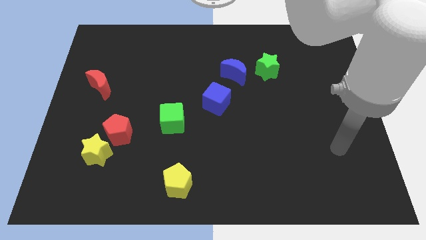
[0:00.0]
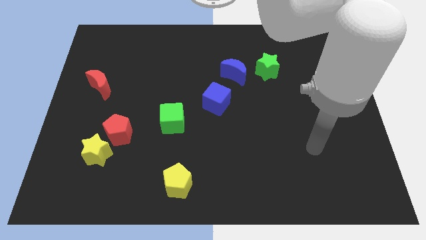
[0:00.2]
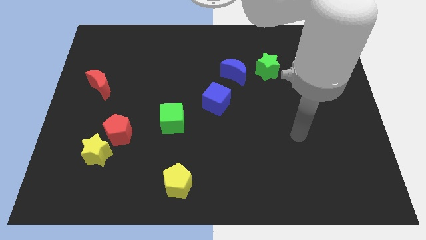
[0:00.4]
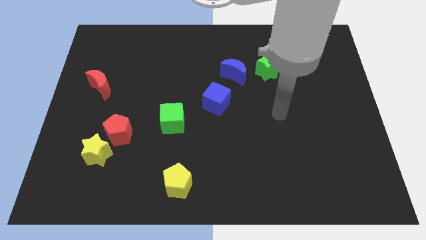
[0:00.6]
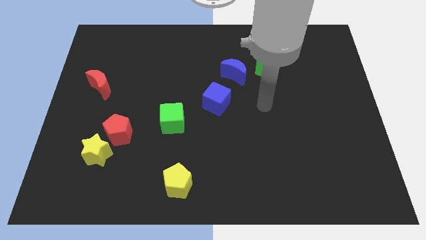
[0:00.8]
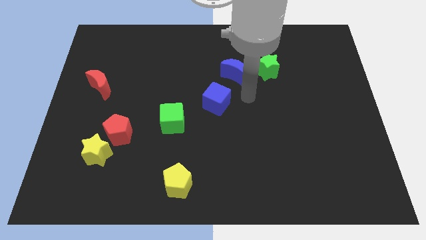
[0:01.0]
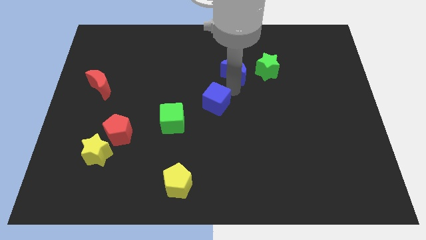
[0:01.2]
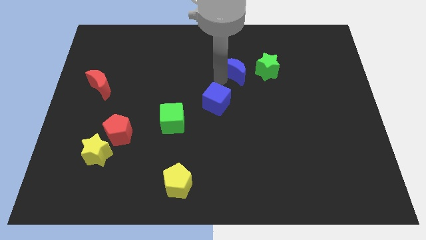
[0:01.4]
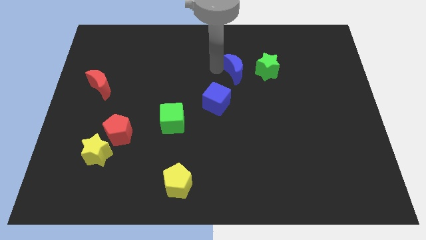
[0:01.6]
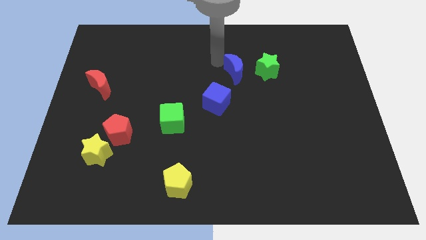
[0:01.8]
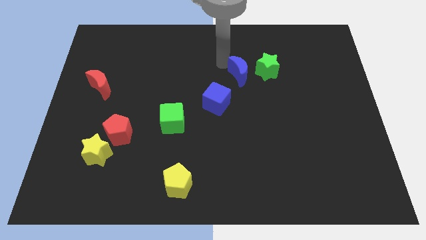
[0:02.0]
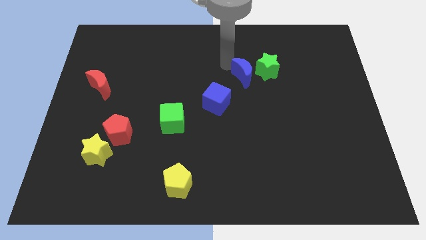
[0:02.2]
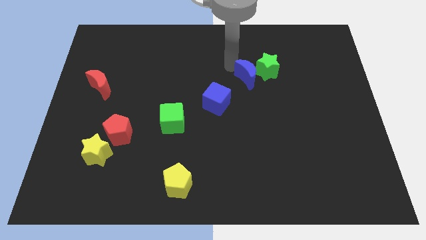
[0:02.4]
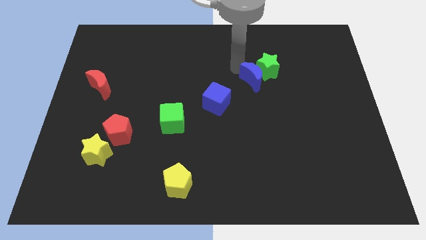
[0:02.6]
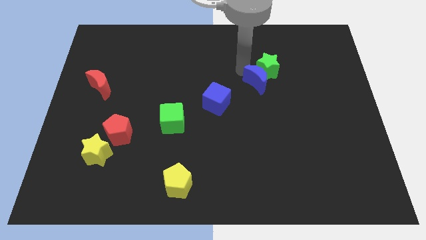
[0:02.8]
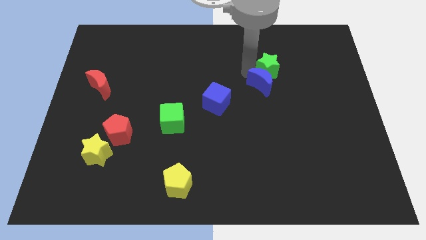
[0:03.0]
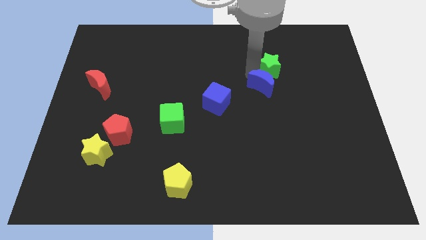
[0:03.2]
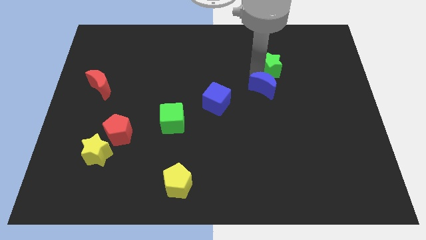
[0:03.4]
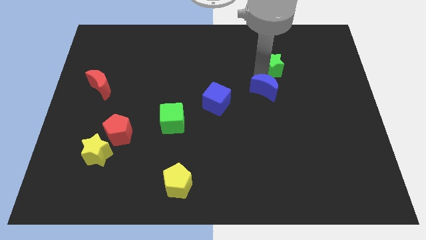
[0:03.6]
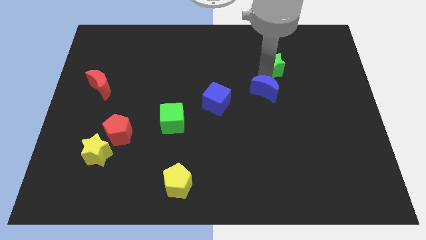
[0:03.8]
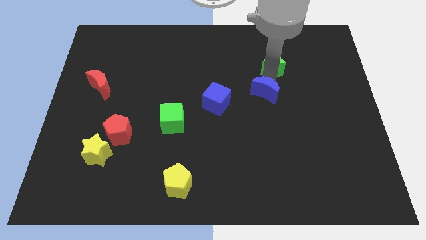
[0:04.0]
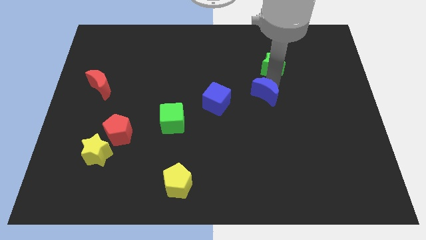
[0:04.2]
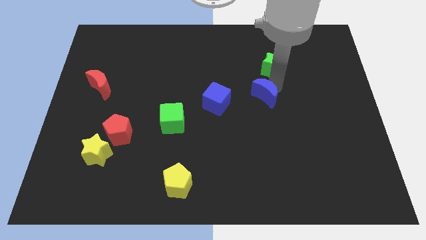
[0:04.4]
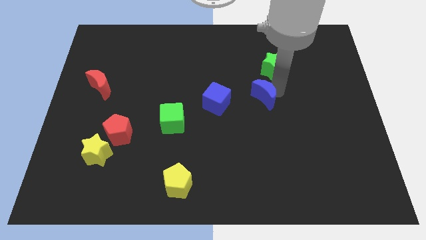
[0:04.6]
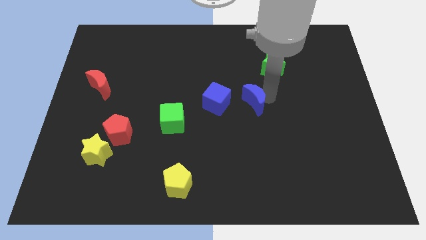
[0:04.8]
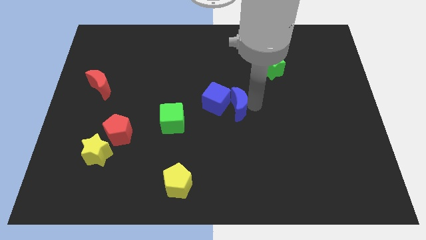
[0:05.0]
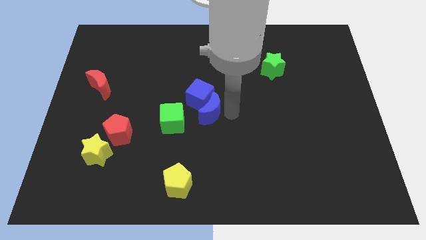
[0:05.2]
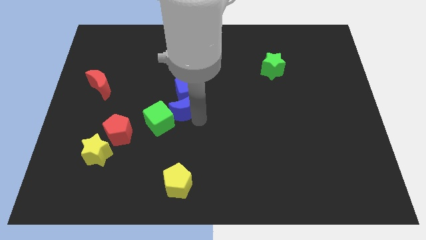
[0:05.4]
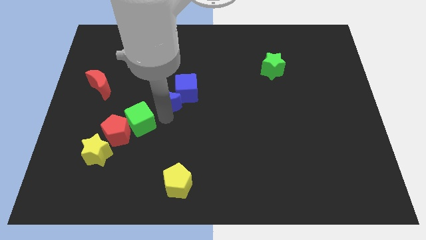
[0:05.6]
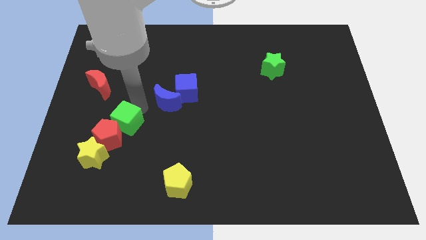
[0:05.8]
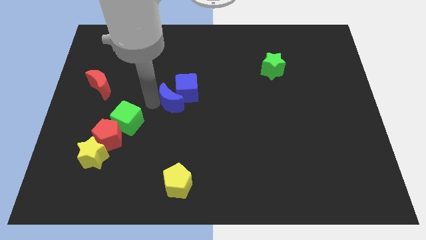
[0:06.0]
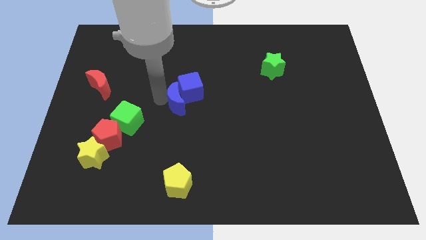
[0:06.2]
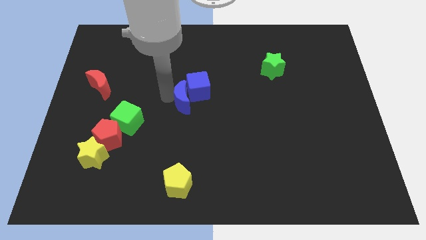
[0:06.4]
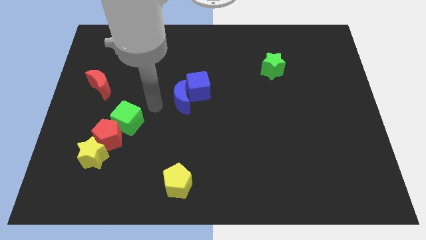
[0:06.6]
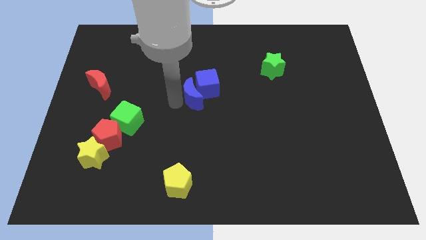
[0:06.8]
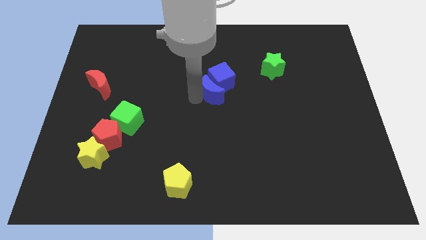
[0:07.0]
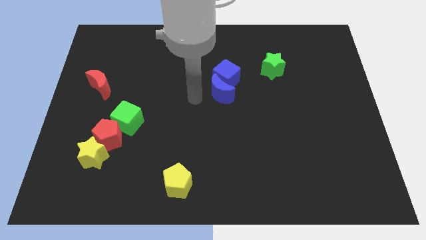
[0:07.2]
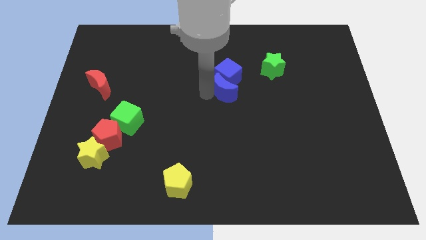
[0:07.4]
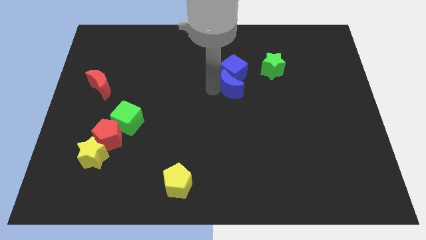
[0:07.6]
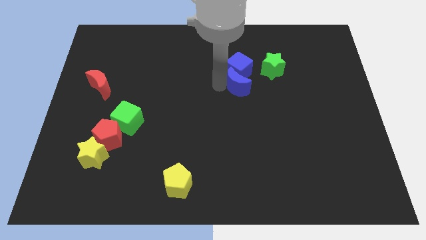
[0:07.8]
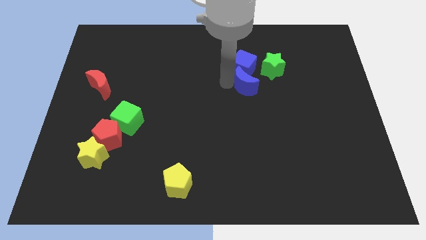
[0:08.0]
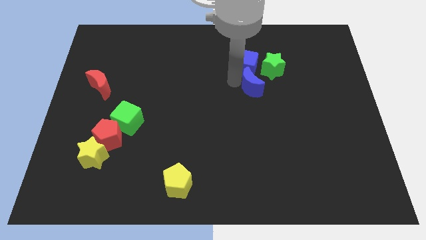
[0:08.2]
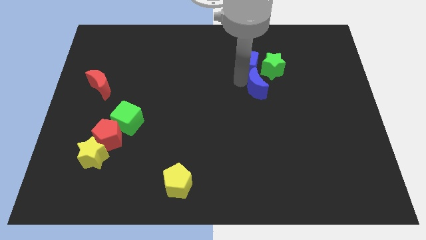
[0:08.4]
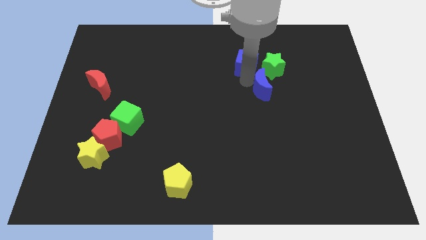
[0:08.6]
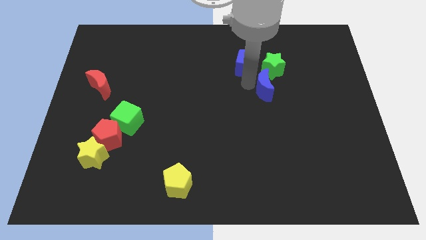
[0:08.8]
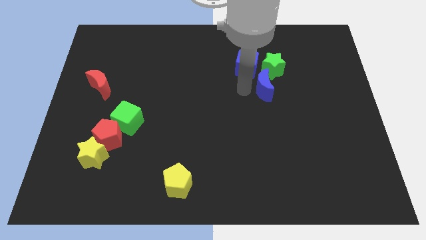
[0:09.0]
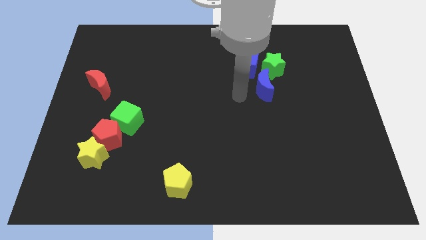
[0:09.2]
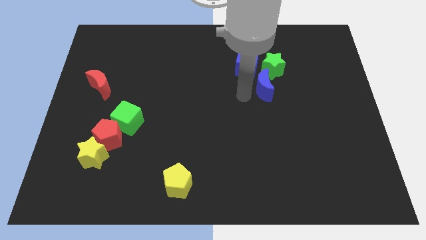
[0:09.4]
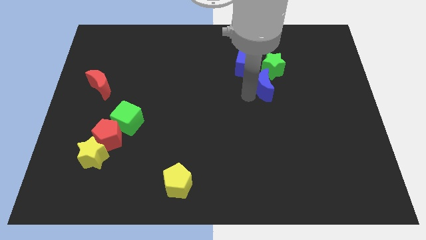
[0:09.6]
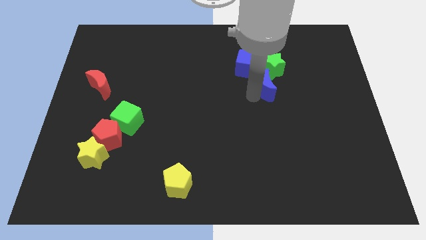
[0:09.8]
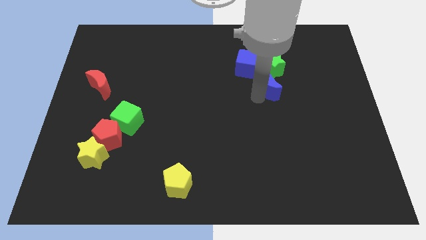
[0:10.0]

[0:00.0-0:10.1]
slide the blue moon slightly right

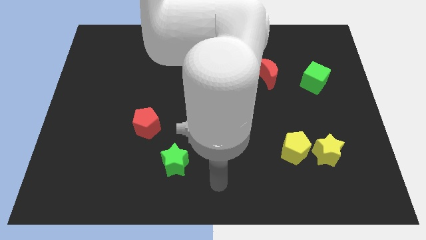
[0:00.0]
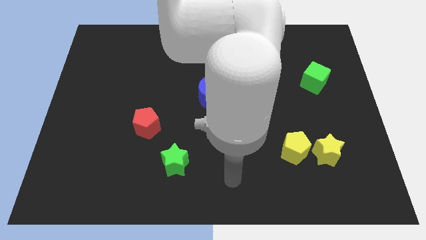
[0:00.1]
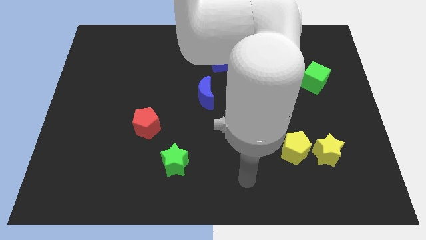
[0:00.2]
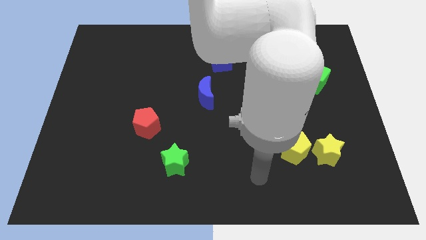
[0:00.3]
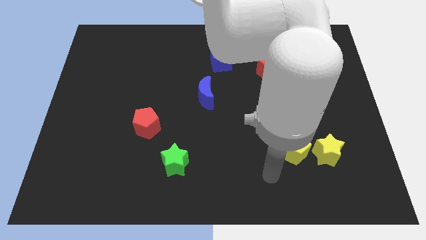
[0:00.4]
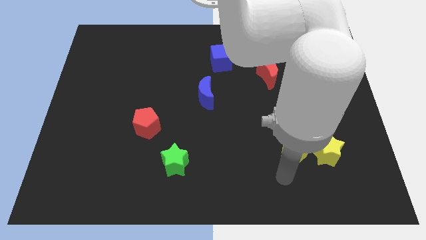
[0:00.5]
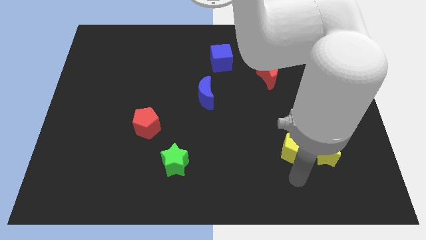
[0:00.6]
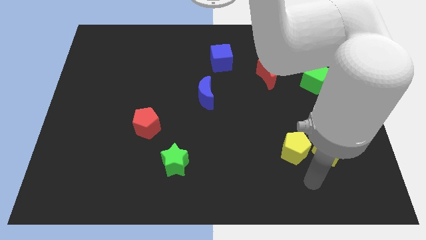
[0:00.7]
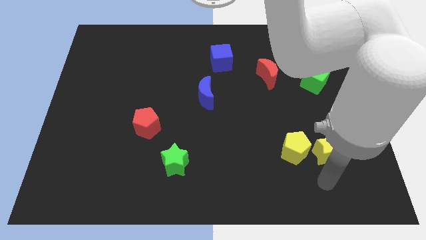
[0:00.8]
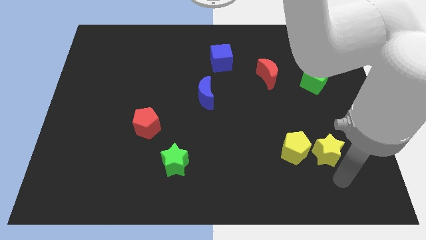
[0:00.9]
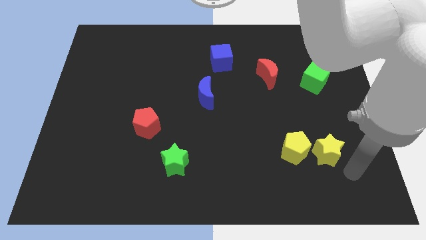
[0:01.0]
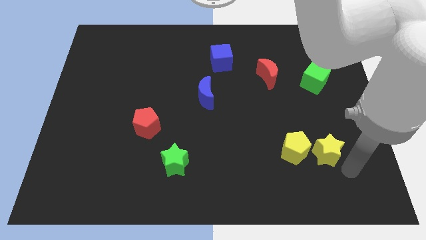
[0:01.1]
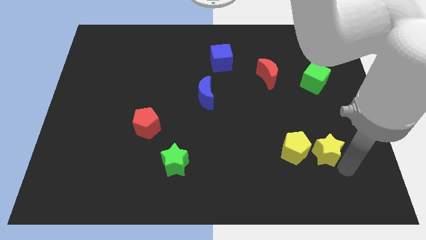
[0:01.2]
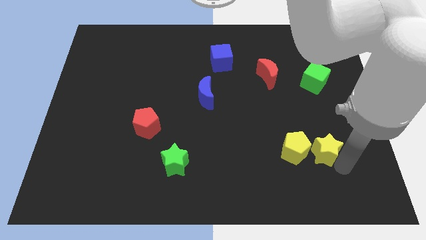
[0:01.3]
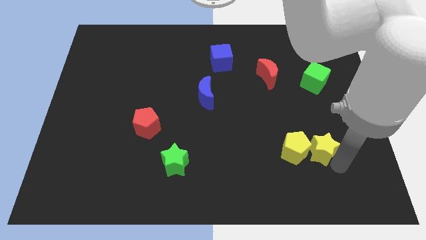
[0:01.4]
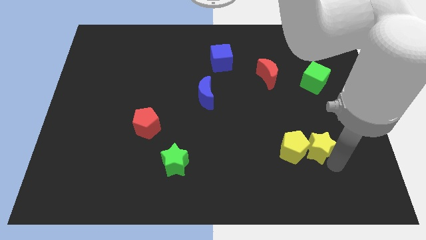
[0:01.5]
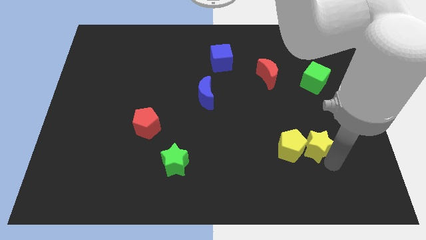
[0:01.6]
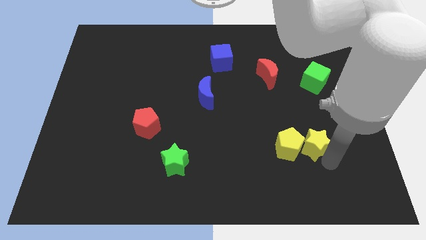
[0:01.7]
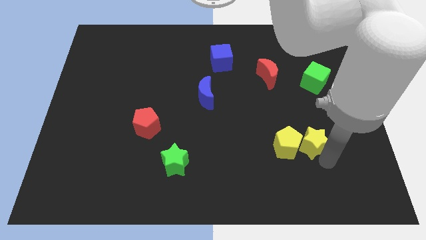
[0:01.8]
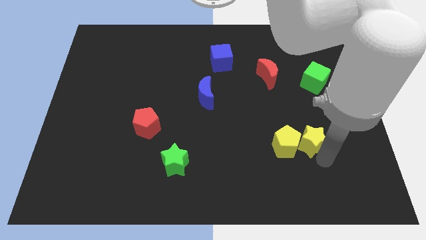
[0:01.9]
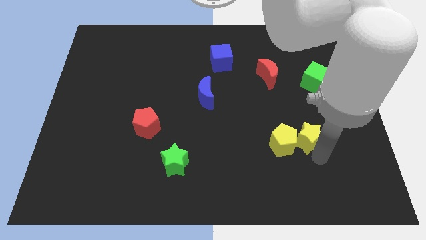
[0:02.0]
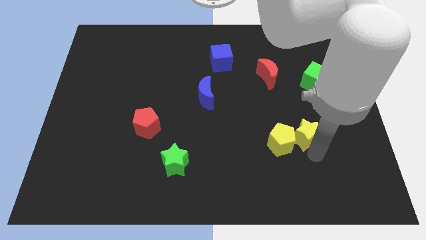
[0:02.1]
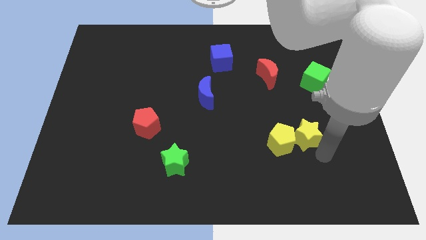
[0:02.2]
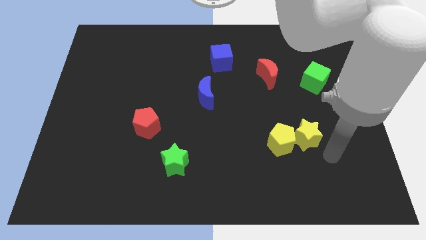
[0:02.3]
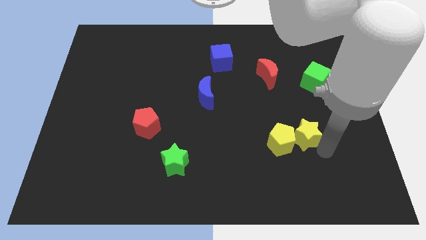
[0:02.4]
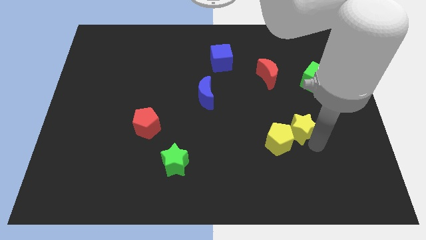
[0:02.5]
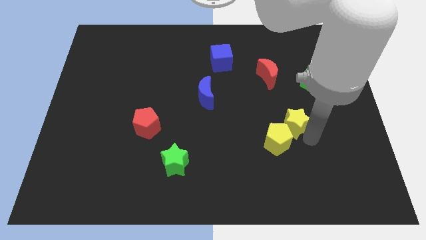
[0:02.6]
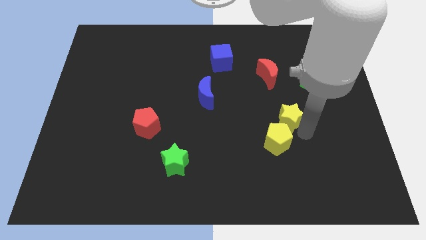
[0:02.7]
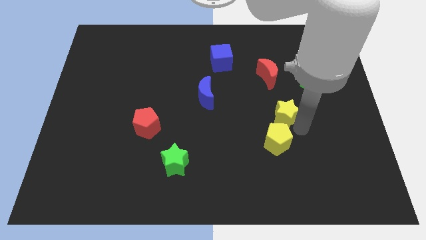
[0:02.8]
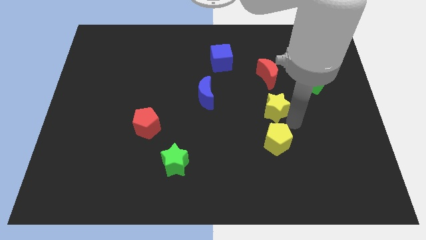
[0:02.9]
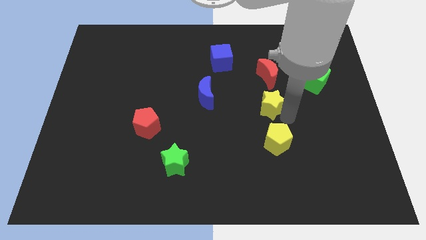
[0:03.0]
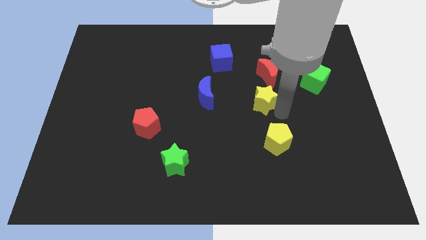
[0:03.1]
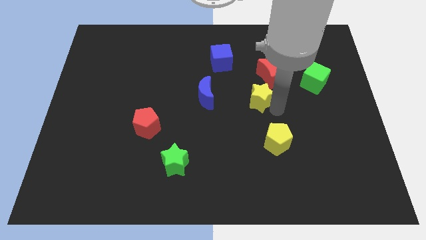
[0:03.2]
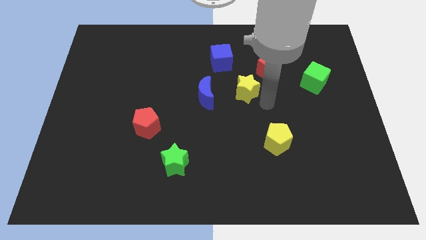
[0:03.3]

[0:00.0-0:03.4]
push the yellow star upwards and to the left diagonally
